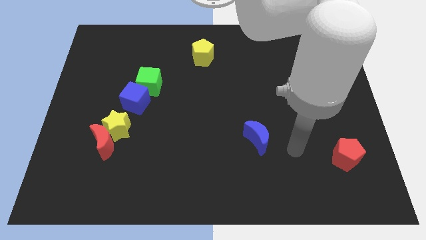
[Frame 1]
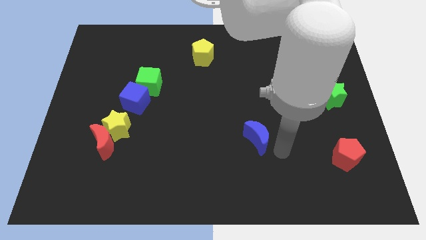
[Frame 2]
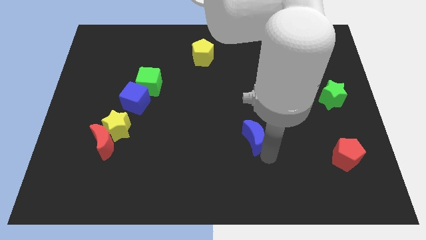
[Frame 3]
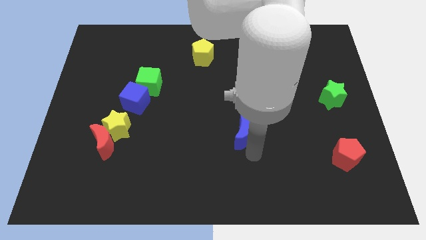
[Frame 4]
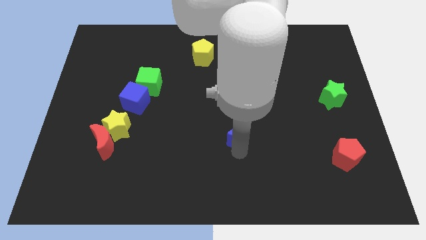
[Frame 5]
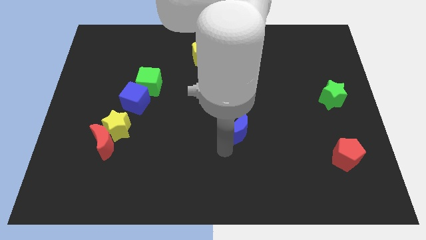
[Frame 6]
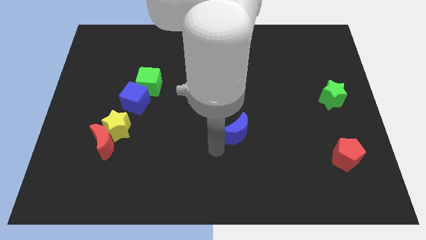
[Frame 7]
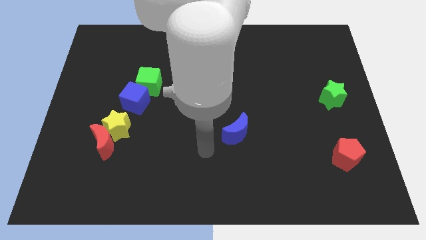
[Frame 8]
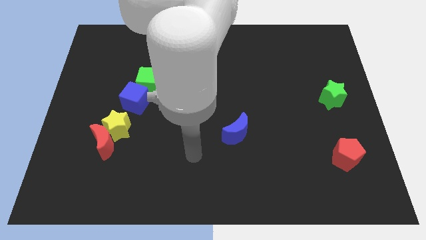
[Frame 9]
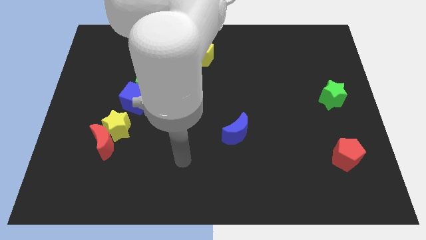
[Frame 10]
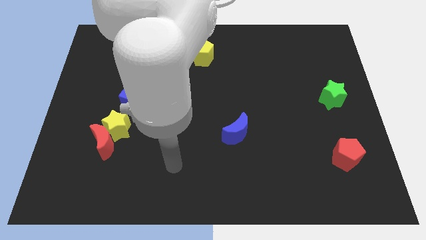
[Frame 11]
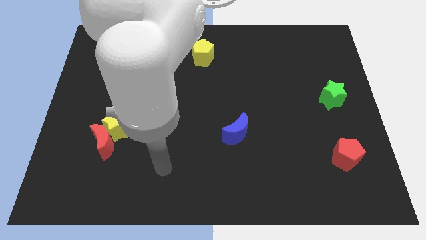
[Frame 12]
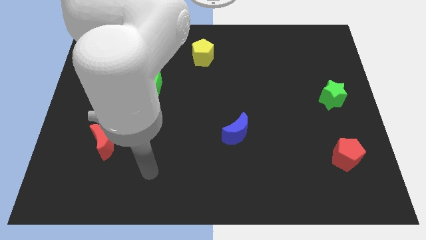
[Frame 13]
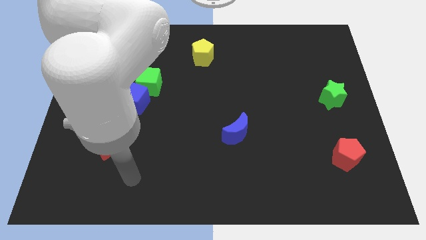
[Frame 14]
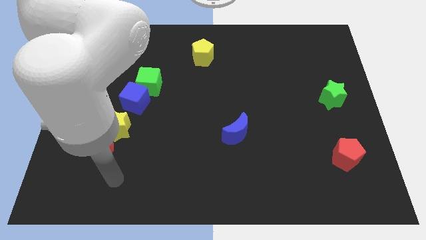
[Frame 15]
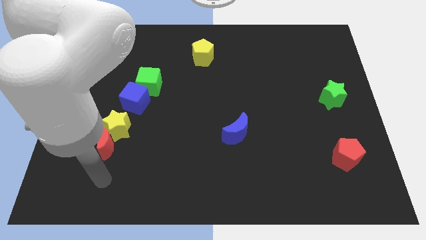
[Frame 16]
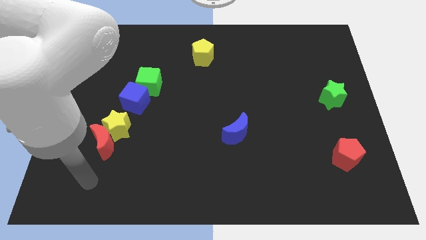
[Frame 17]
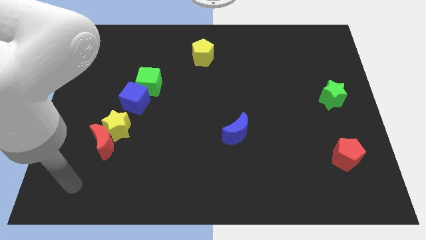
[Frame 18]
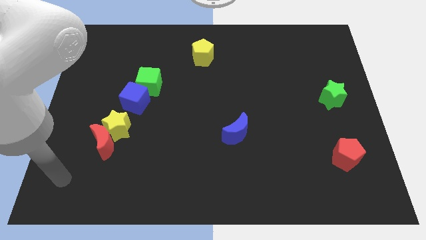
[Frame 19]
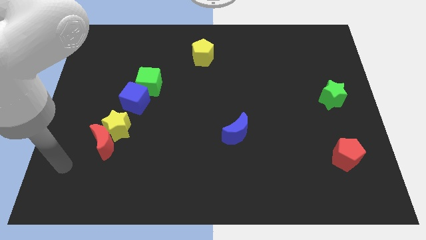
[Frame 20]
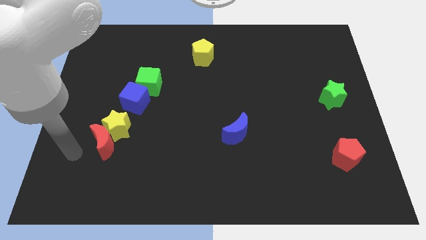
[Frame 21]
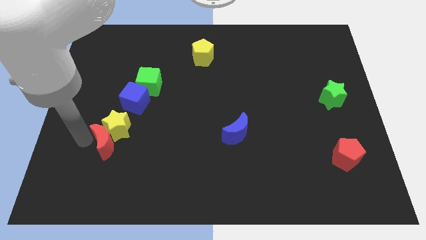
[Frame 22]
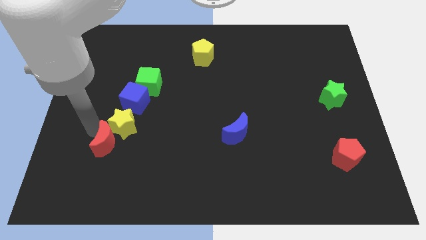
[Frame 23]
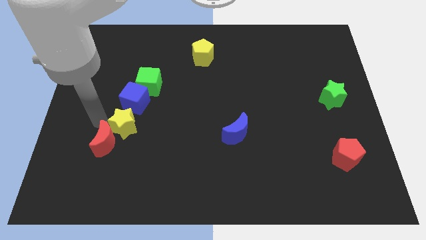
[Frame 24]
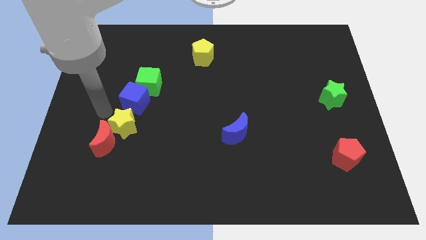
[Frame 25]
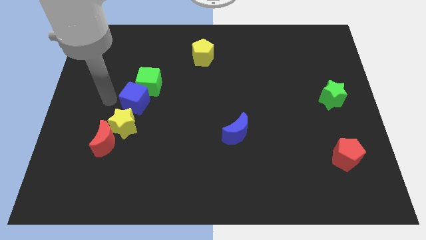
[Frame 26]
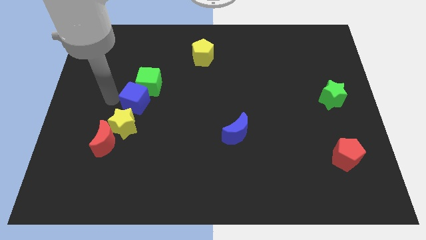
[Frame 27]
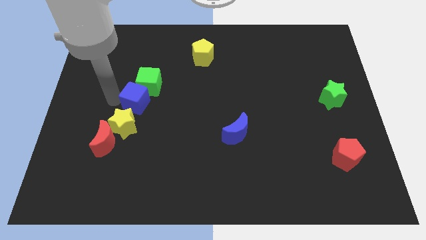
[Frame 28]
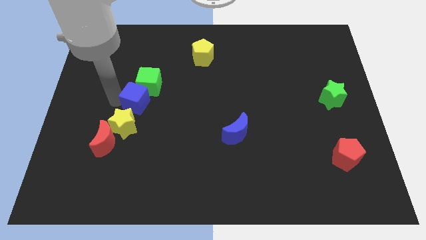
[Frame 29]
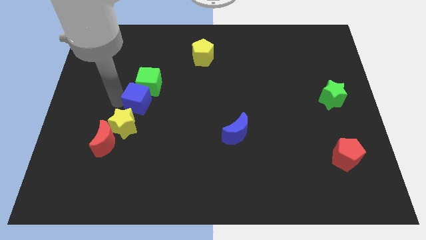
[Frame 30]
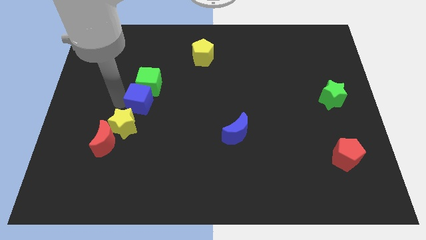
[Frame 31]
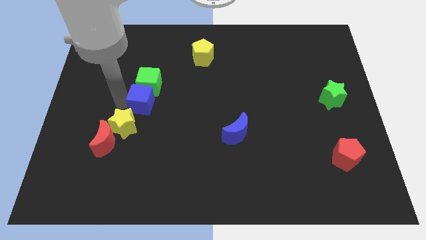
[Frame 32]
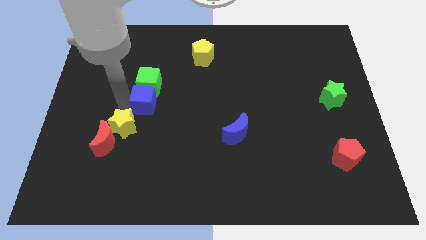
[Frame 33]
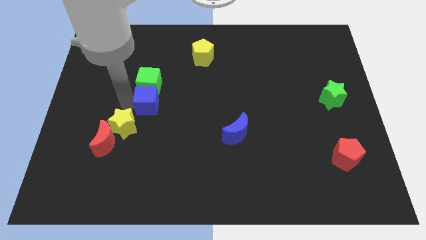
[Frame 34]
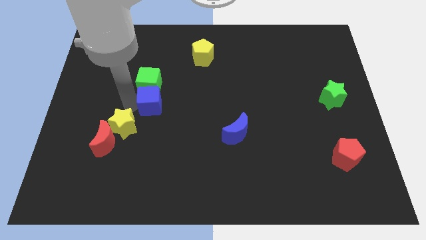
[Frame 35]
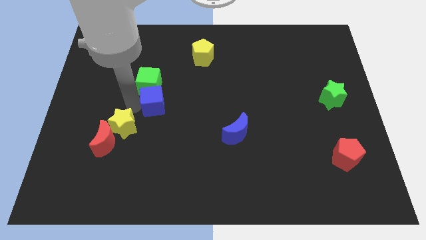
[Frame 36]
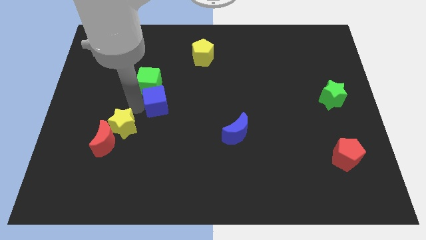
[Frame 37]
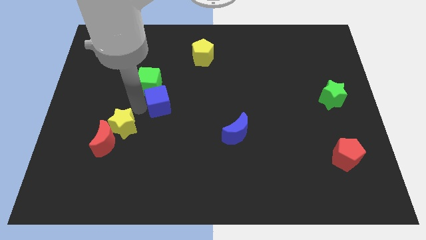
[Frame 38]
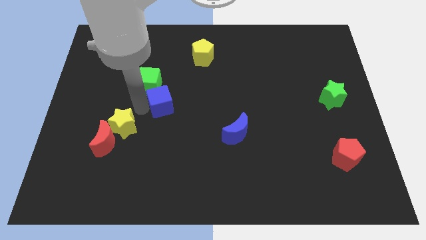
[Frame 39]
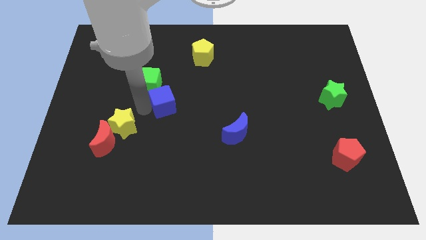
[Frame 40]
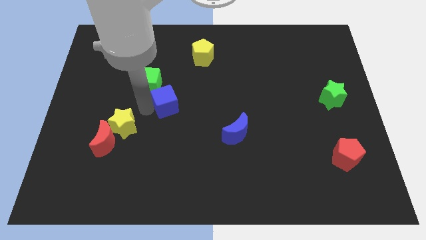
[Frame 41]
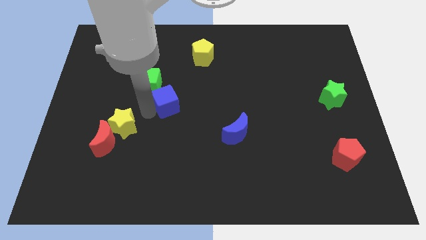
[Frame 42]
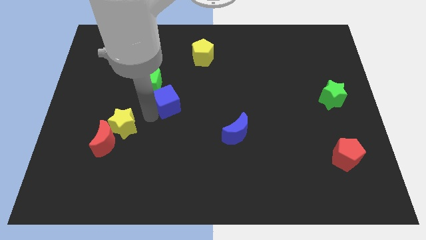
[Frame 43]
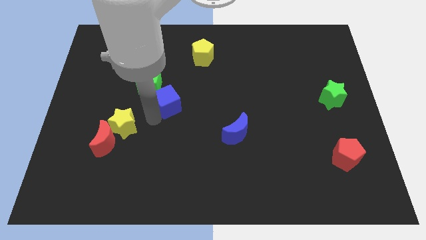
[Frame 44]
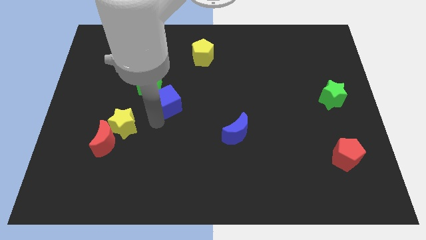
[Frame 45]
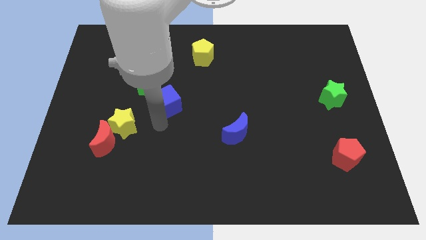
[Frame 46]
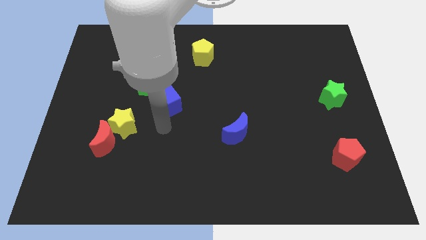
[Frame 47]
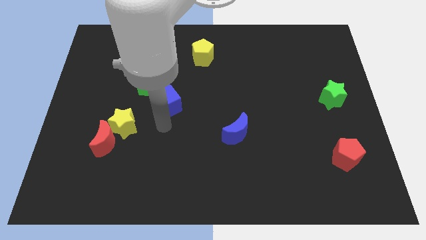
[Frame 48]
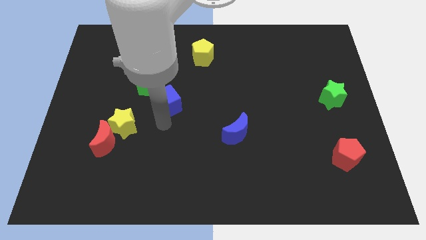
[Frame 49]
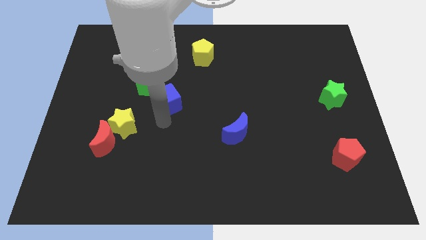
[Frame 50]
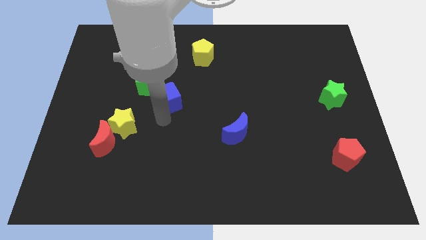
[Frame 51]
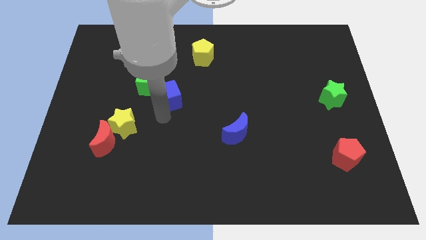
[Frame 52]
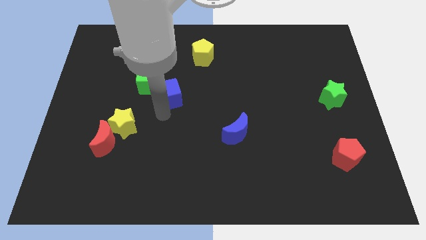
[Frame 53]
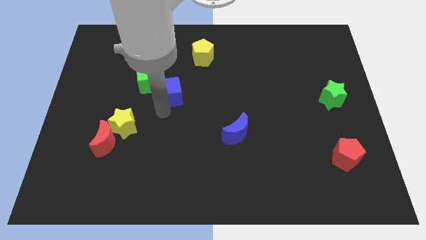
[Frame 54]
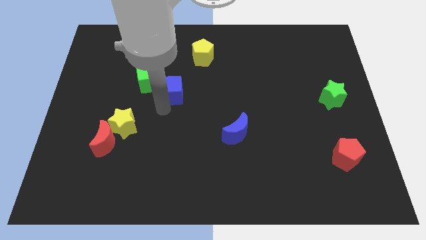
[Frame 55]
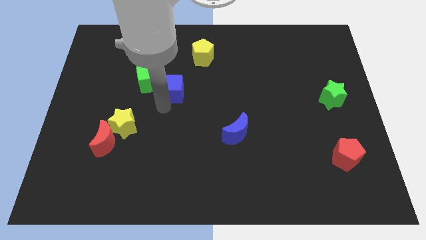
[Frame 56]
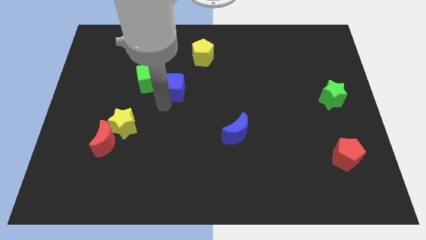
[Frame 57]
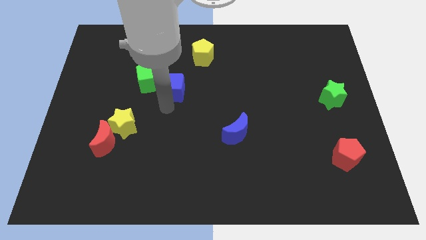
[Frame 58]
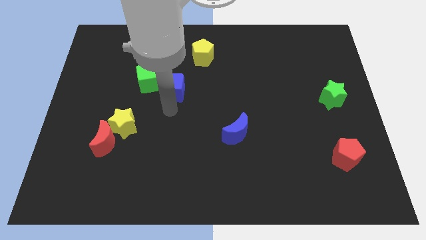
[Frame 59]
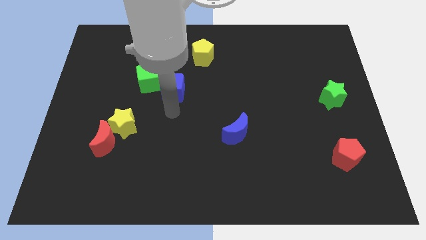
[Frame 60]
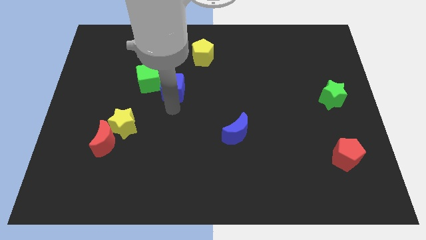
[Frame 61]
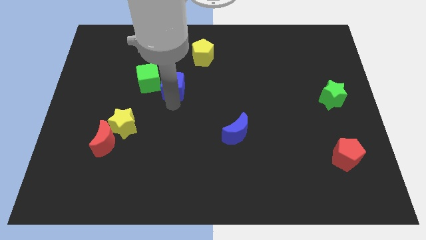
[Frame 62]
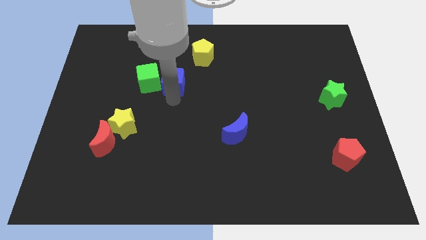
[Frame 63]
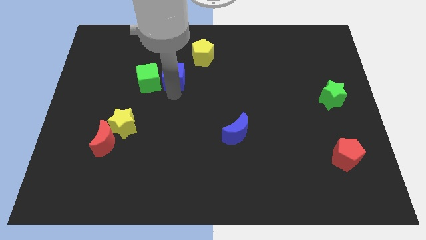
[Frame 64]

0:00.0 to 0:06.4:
put the blue cube to the top right side of the green cube

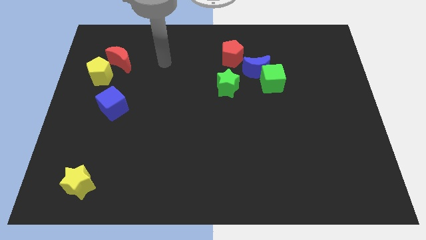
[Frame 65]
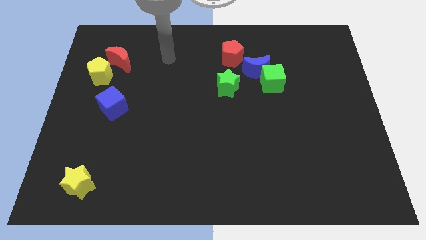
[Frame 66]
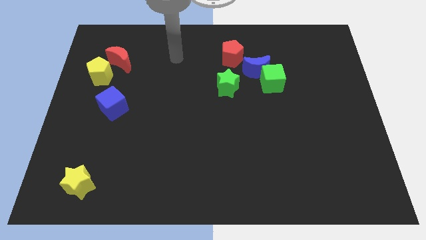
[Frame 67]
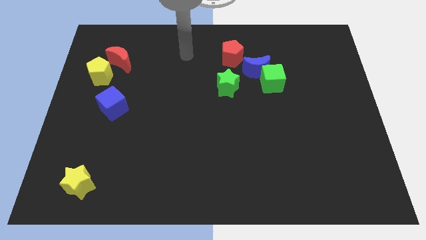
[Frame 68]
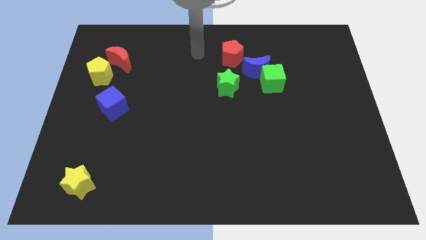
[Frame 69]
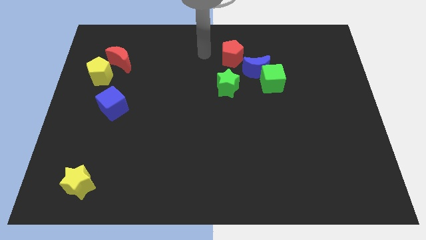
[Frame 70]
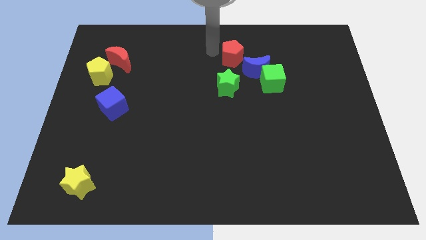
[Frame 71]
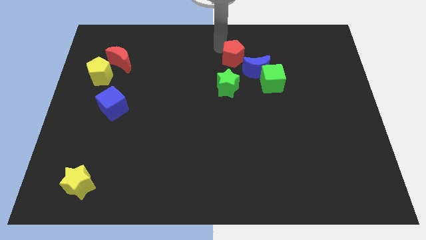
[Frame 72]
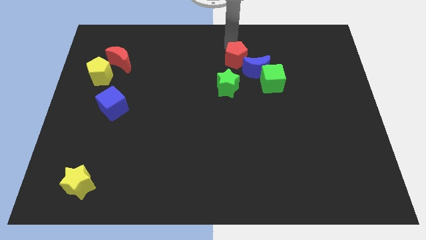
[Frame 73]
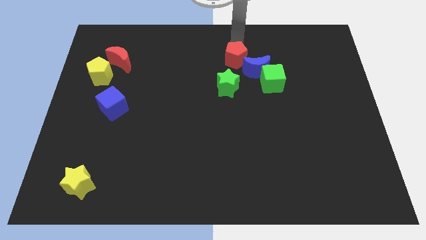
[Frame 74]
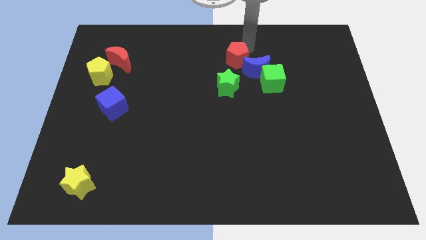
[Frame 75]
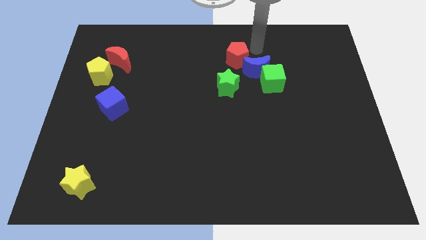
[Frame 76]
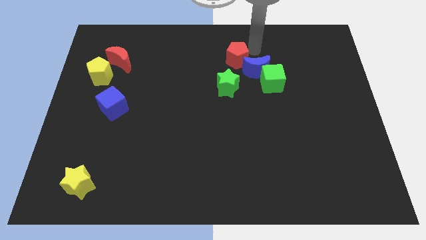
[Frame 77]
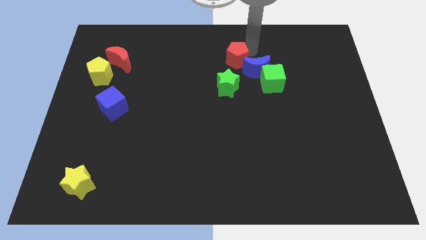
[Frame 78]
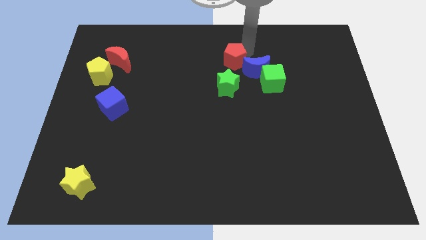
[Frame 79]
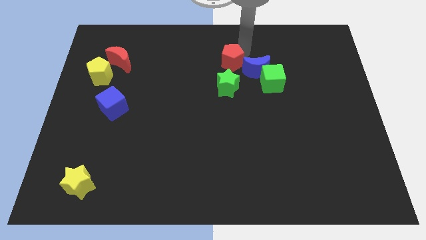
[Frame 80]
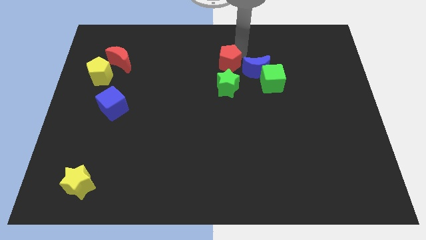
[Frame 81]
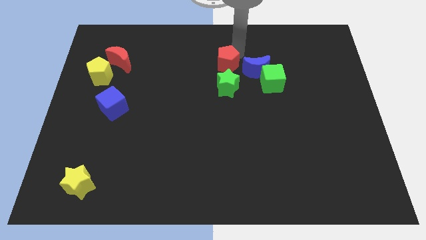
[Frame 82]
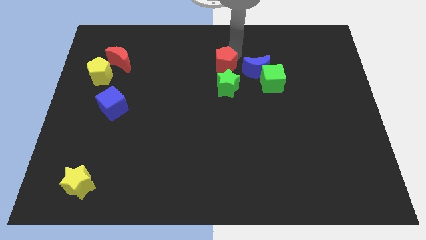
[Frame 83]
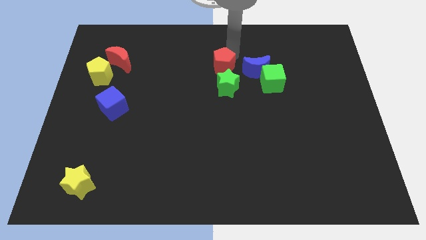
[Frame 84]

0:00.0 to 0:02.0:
put the red pentagon diagonally up and to the left of the green star
